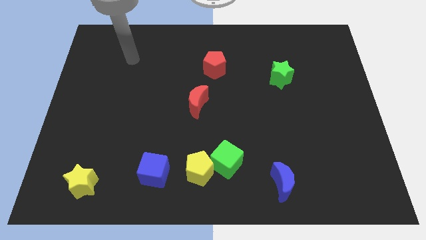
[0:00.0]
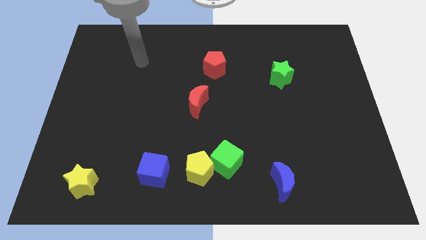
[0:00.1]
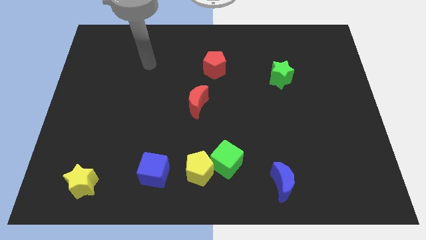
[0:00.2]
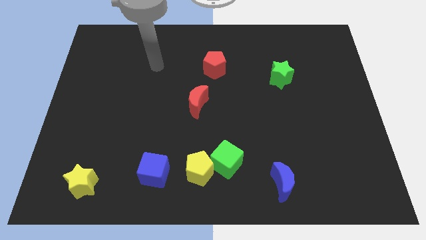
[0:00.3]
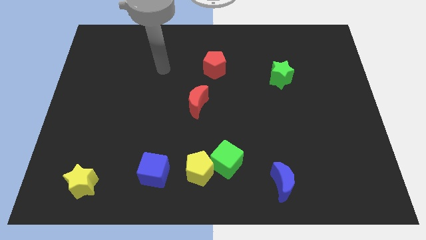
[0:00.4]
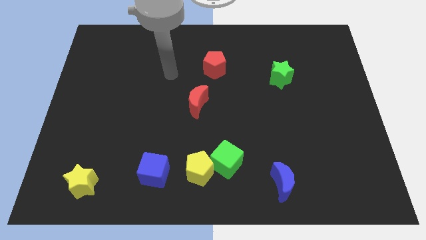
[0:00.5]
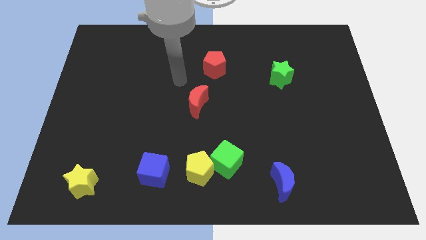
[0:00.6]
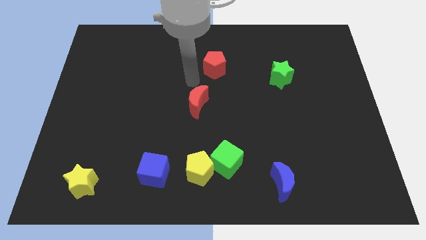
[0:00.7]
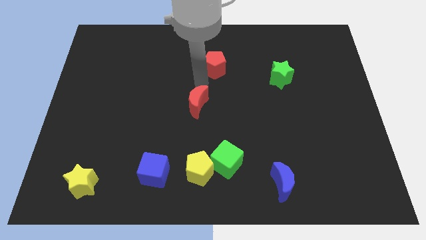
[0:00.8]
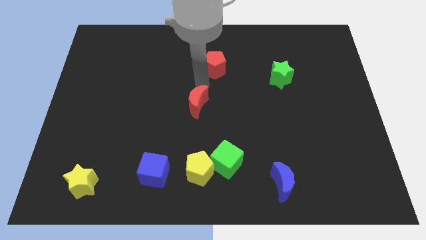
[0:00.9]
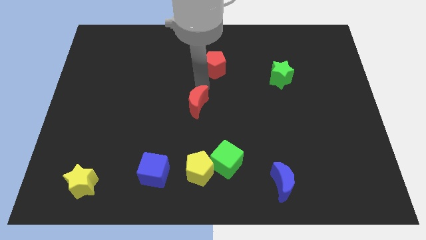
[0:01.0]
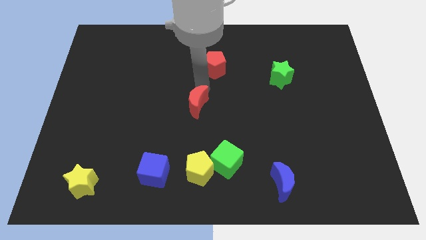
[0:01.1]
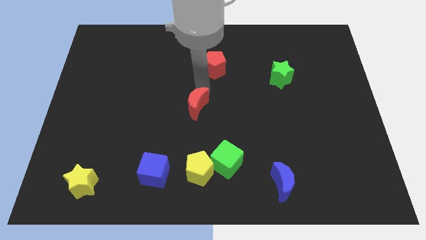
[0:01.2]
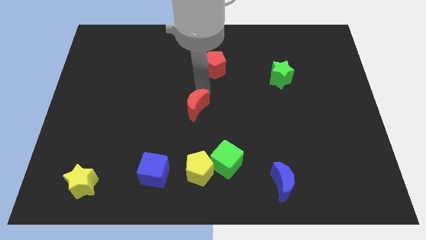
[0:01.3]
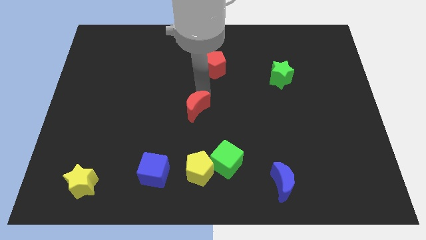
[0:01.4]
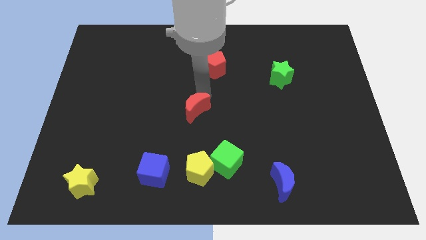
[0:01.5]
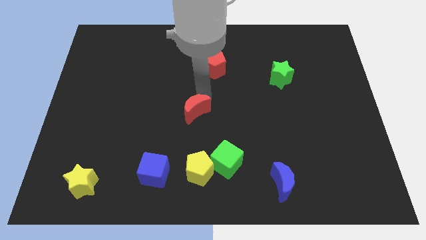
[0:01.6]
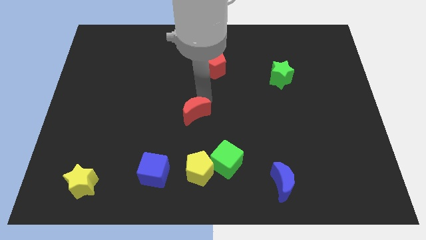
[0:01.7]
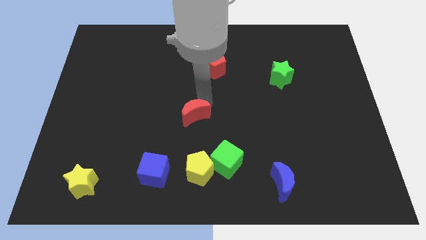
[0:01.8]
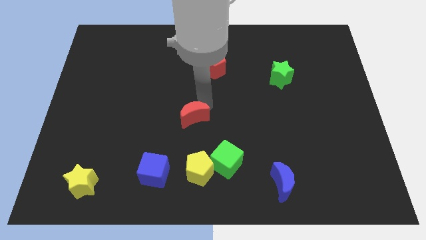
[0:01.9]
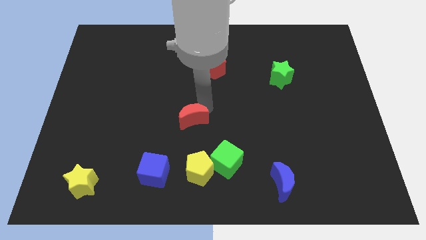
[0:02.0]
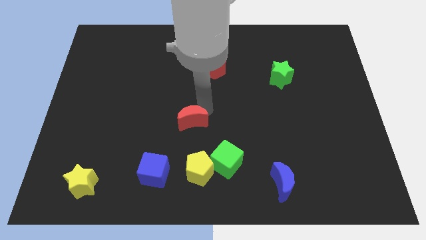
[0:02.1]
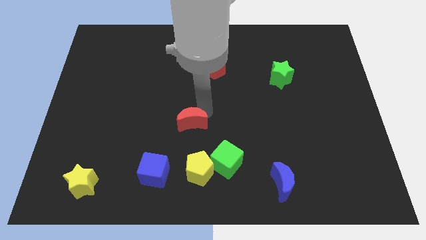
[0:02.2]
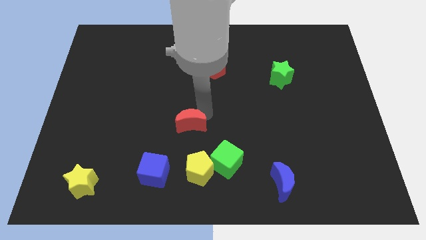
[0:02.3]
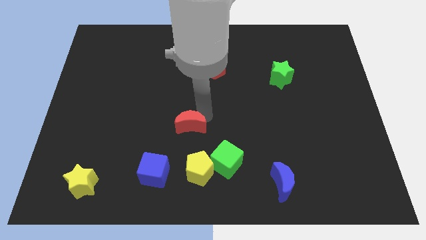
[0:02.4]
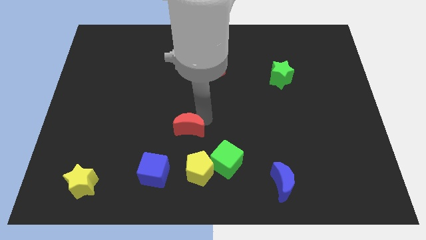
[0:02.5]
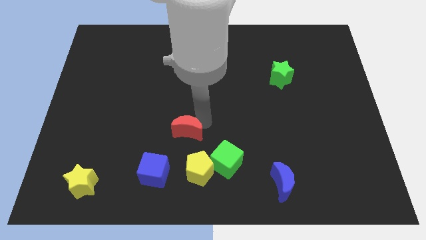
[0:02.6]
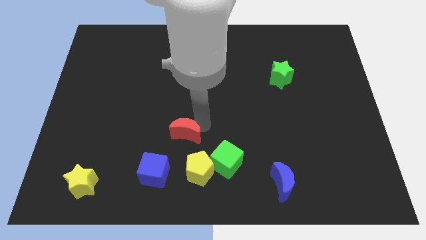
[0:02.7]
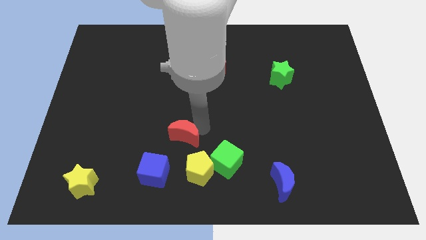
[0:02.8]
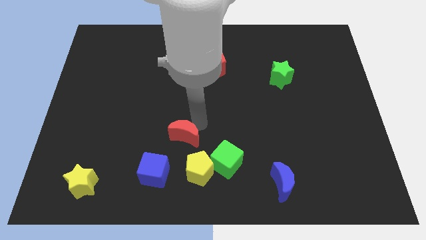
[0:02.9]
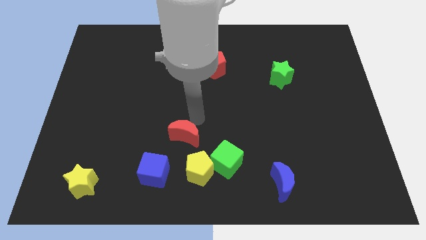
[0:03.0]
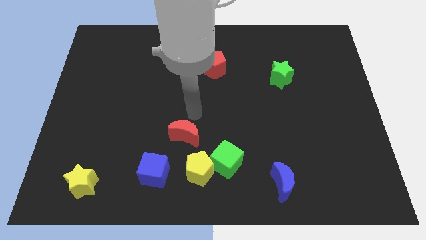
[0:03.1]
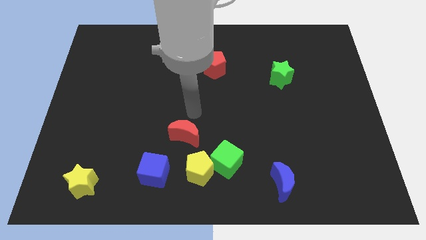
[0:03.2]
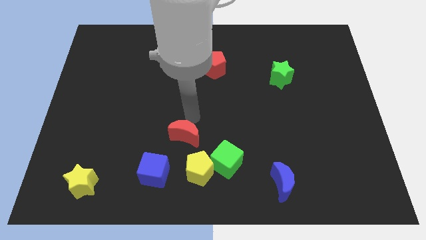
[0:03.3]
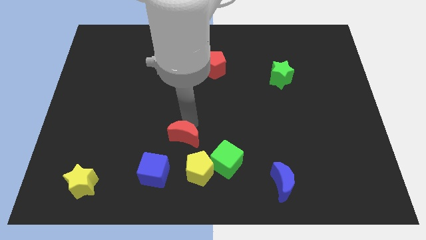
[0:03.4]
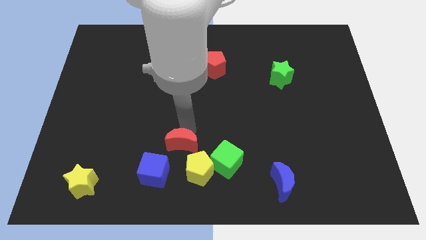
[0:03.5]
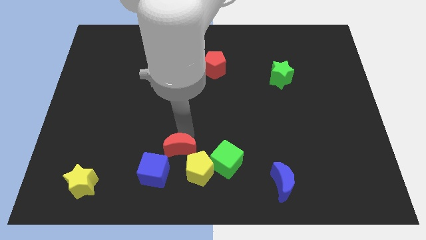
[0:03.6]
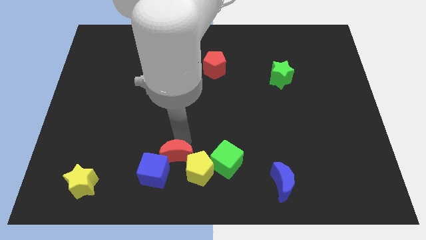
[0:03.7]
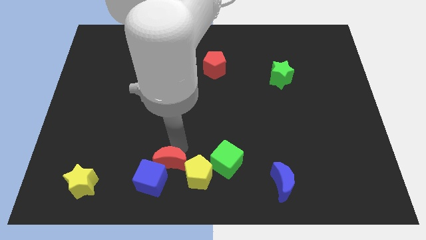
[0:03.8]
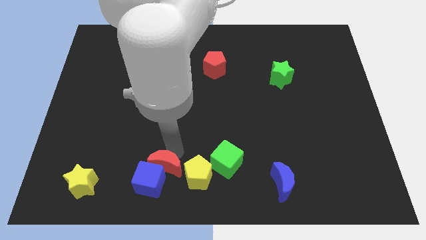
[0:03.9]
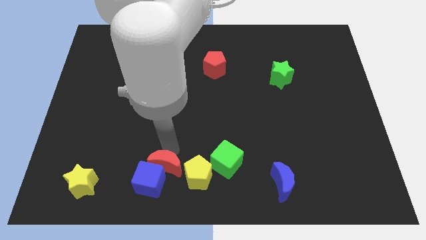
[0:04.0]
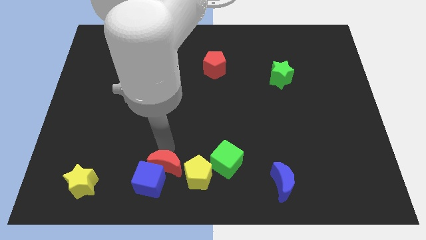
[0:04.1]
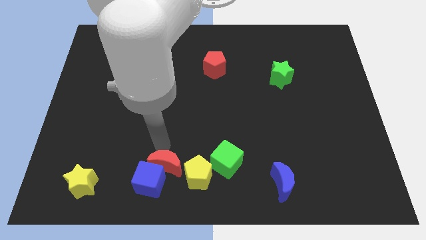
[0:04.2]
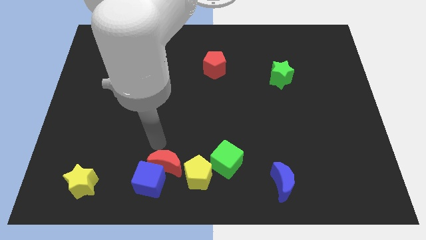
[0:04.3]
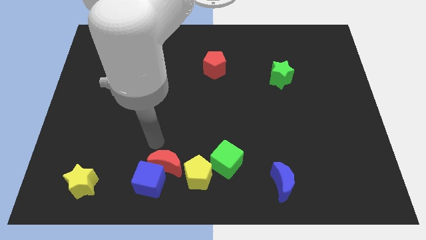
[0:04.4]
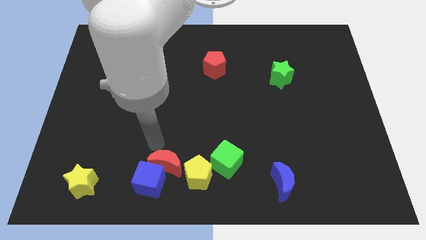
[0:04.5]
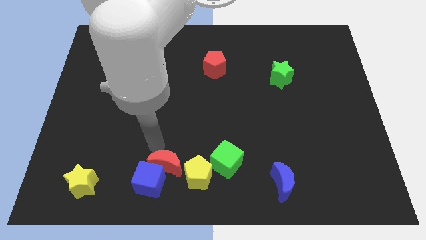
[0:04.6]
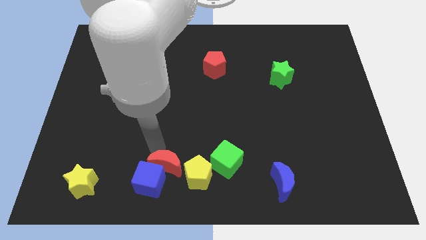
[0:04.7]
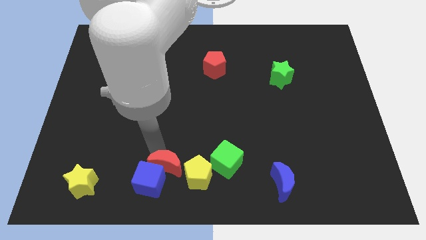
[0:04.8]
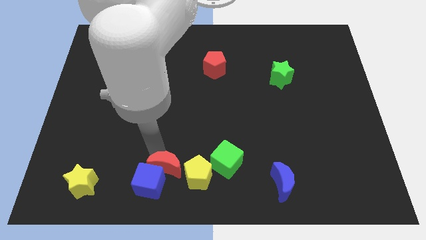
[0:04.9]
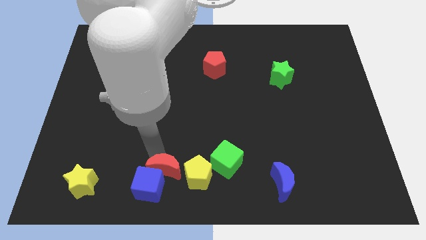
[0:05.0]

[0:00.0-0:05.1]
move the red moon to the bottom

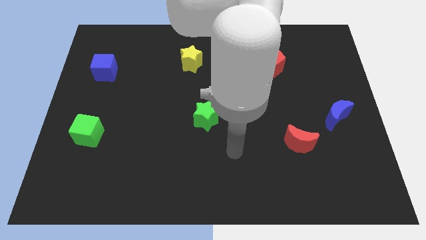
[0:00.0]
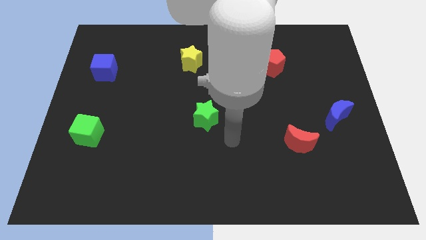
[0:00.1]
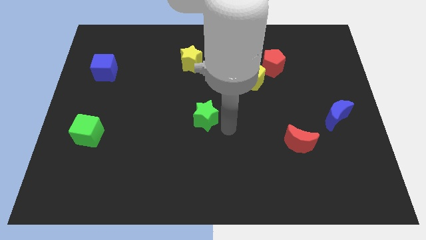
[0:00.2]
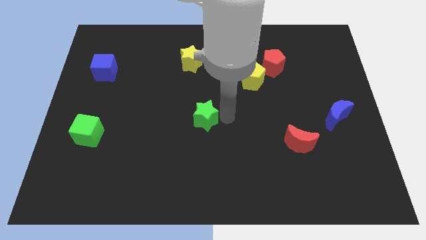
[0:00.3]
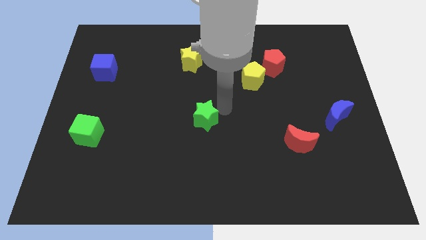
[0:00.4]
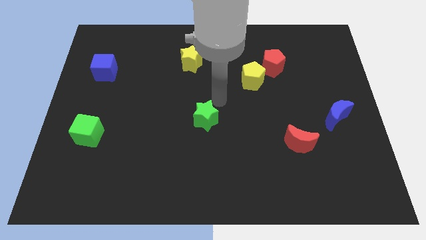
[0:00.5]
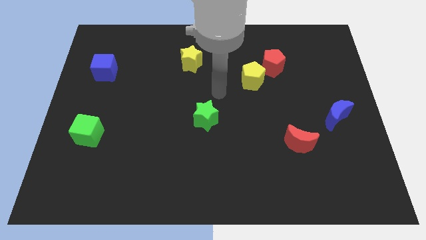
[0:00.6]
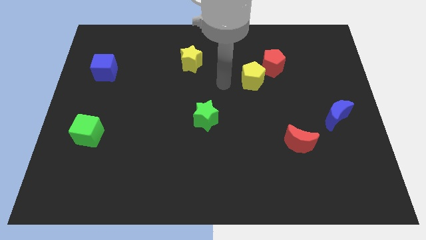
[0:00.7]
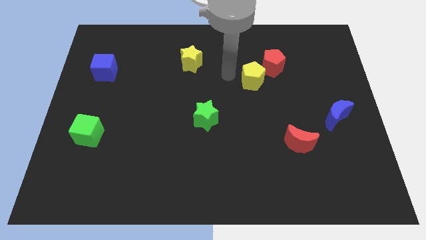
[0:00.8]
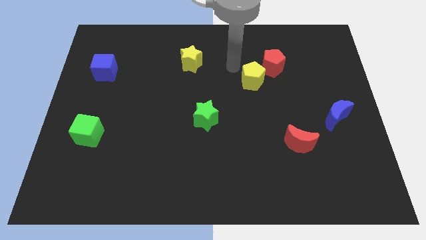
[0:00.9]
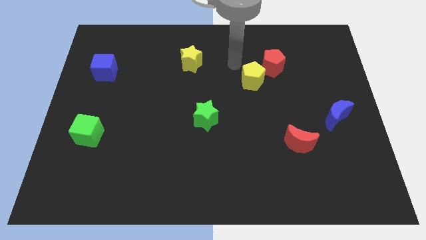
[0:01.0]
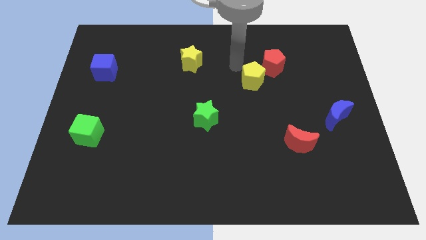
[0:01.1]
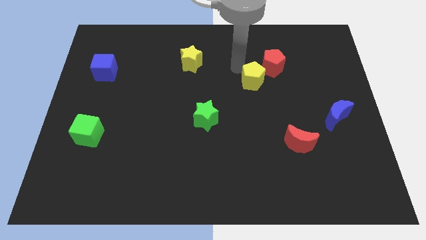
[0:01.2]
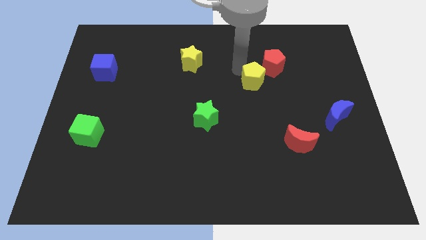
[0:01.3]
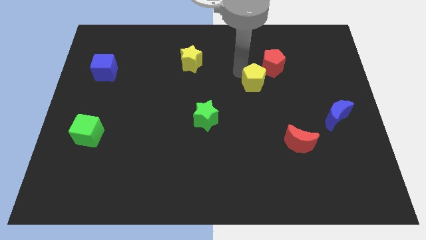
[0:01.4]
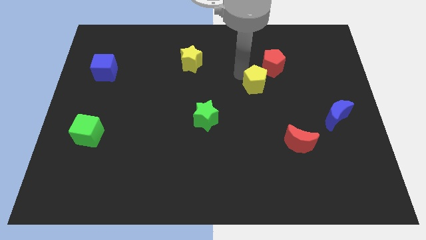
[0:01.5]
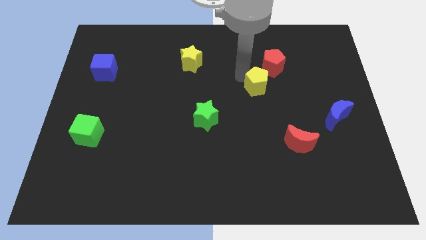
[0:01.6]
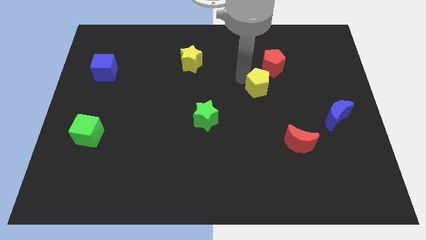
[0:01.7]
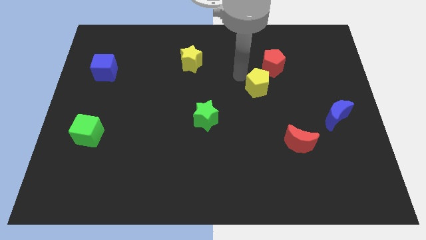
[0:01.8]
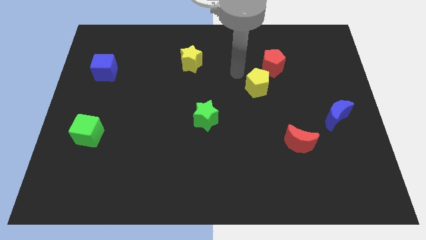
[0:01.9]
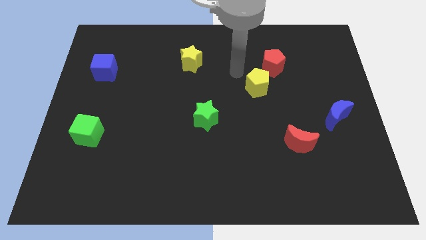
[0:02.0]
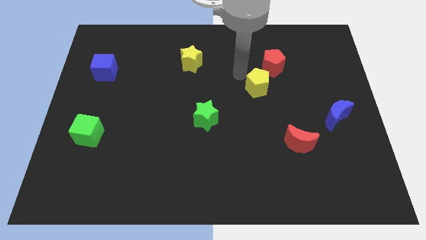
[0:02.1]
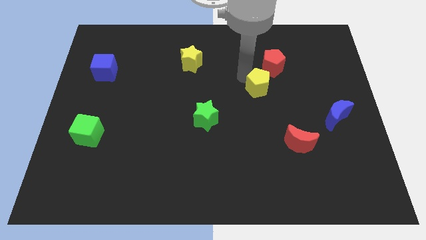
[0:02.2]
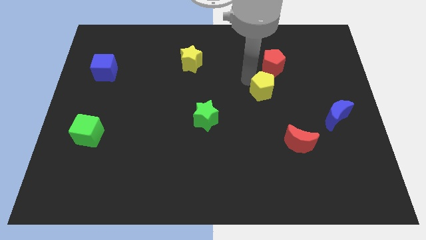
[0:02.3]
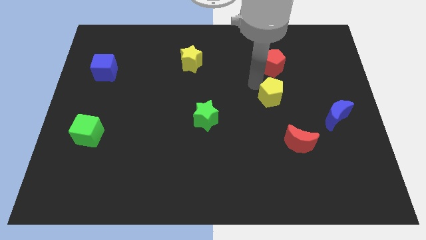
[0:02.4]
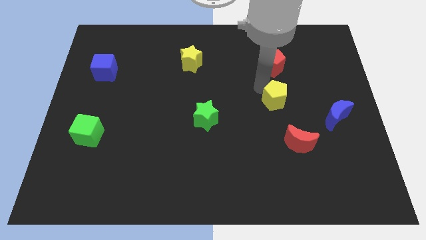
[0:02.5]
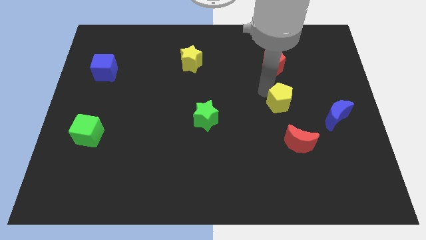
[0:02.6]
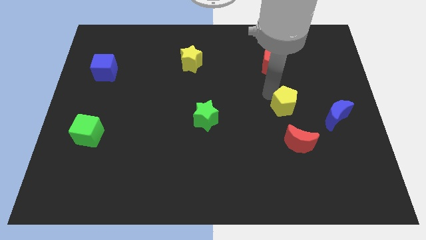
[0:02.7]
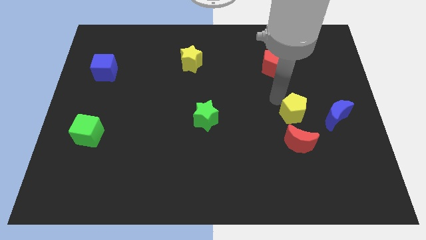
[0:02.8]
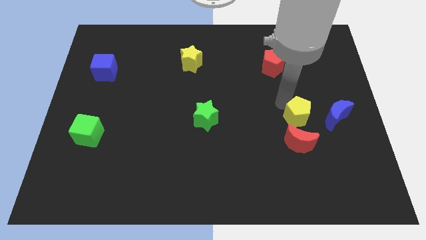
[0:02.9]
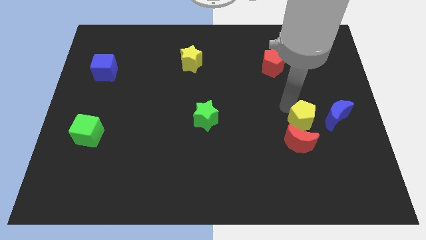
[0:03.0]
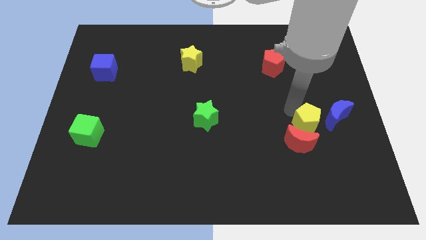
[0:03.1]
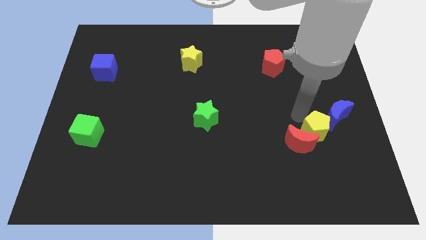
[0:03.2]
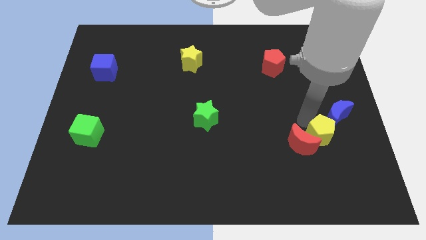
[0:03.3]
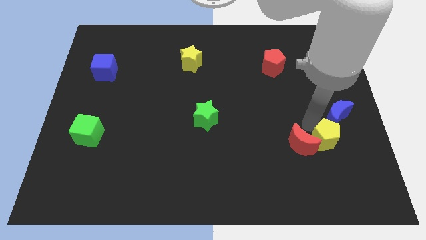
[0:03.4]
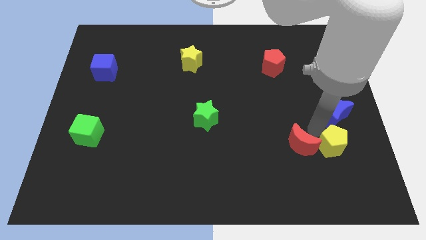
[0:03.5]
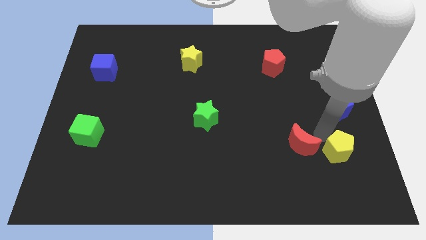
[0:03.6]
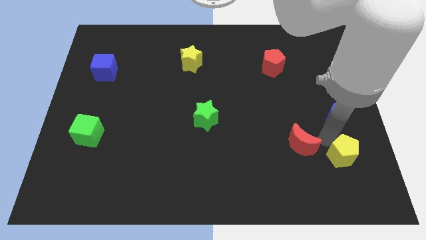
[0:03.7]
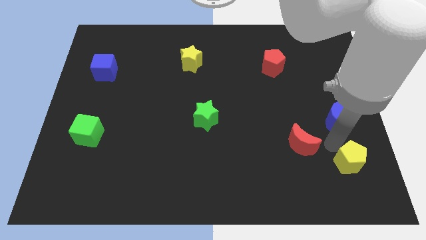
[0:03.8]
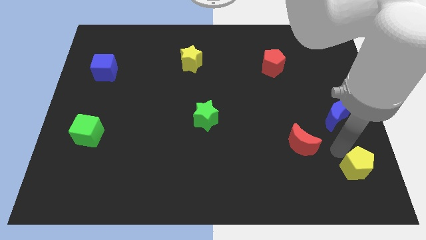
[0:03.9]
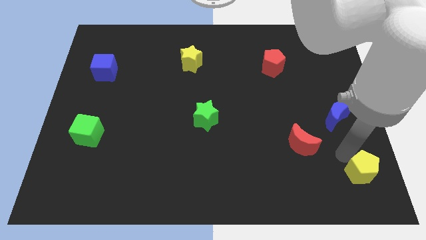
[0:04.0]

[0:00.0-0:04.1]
push the yellow pentagon to the bottom right
